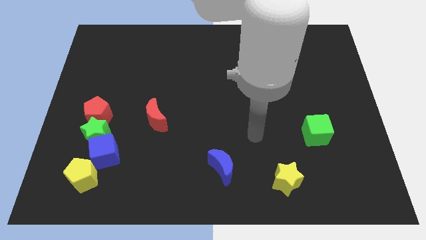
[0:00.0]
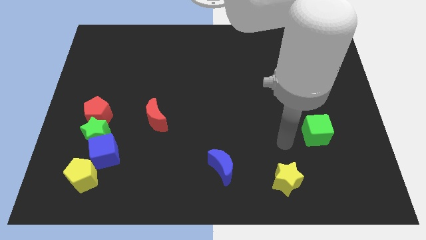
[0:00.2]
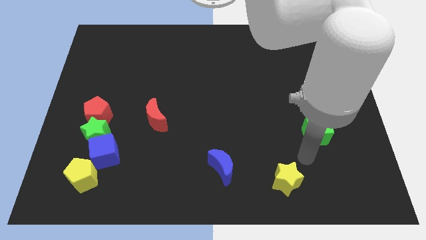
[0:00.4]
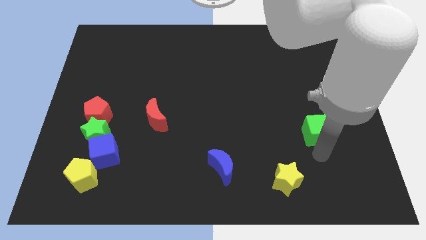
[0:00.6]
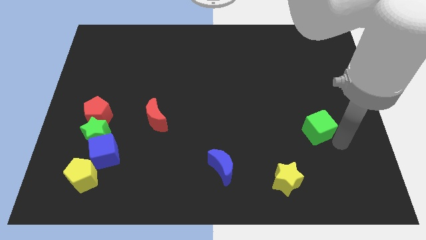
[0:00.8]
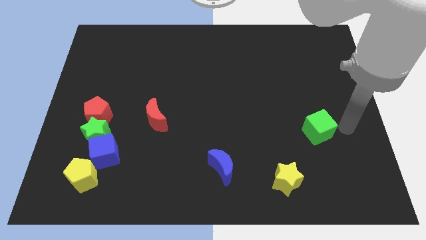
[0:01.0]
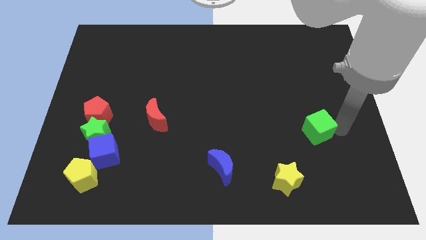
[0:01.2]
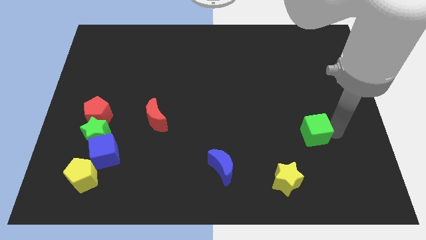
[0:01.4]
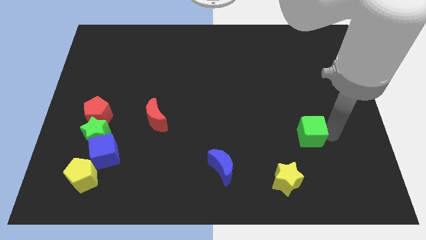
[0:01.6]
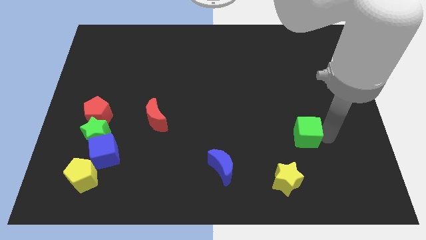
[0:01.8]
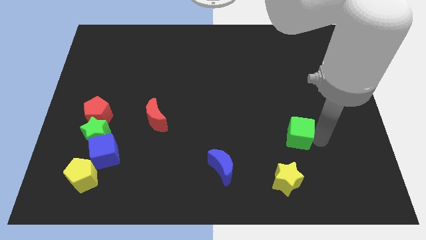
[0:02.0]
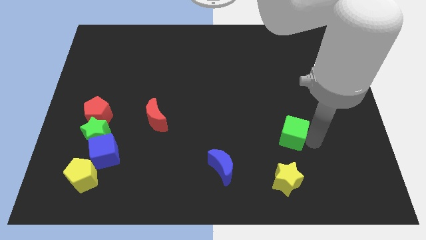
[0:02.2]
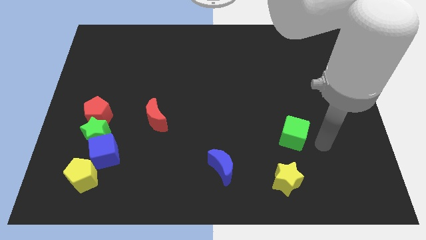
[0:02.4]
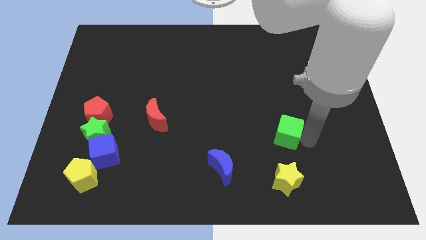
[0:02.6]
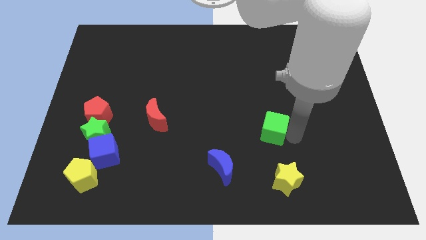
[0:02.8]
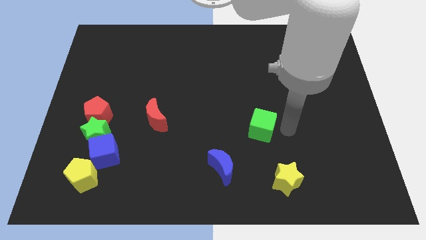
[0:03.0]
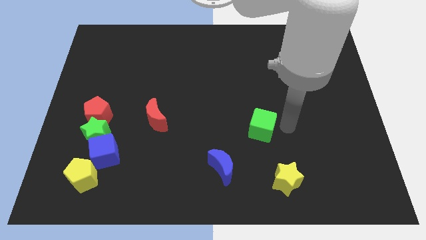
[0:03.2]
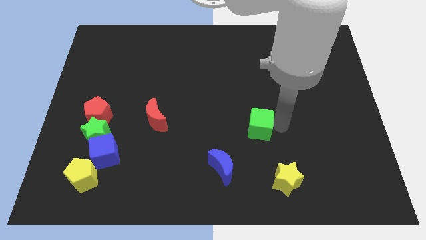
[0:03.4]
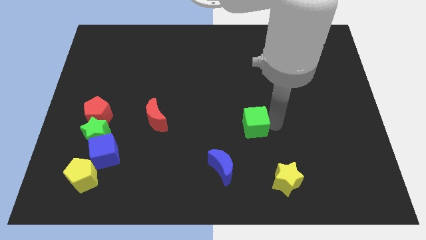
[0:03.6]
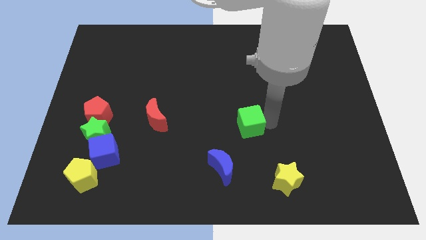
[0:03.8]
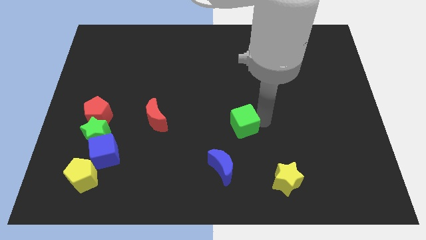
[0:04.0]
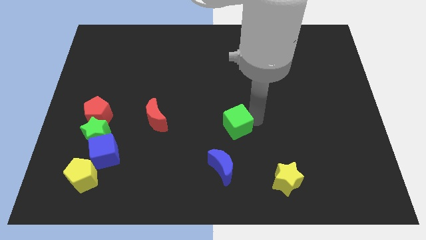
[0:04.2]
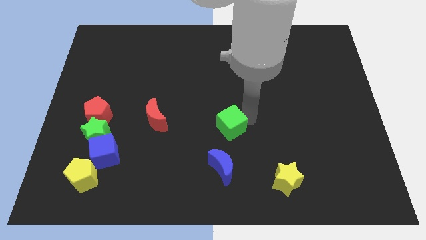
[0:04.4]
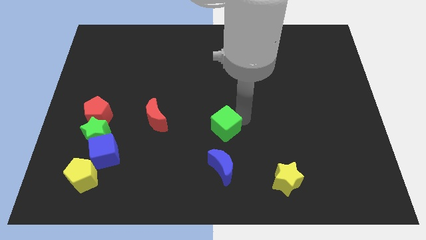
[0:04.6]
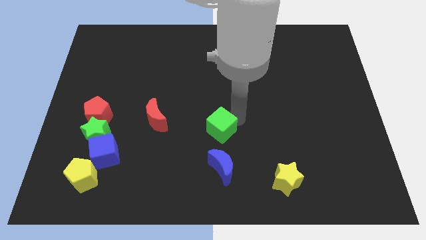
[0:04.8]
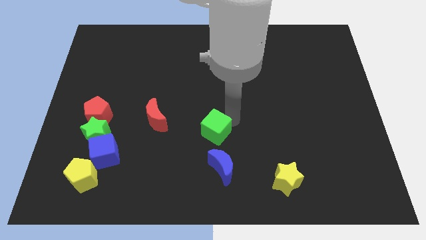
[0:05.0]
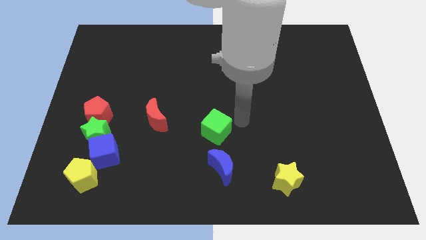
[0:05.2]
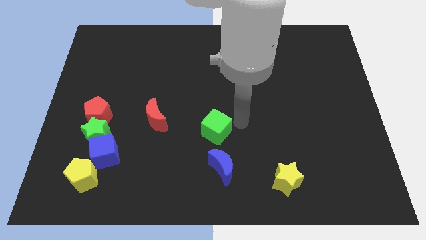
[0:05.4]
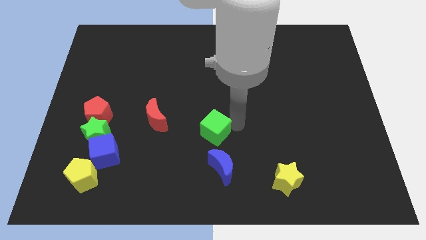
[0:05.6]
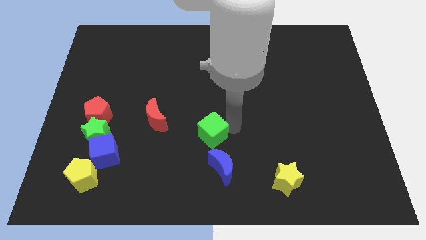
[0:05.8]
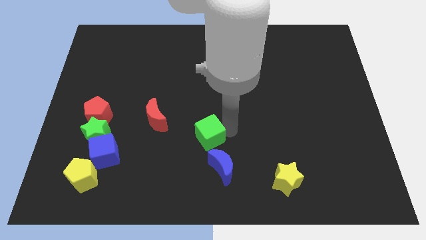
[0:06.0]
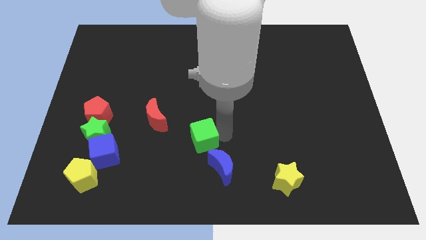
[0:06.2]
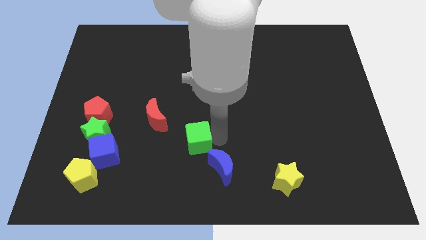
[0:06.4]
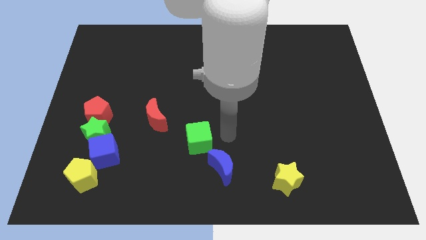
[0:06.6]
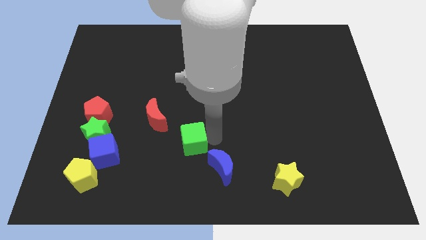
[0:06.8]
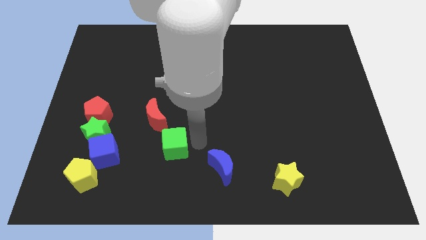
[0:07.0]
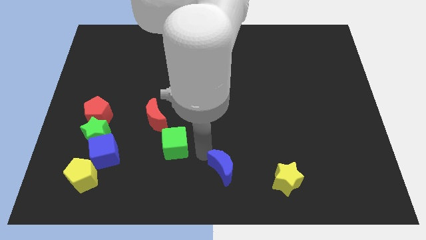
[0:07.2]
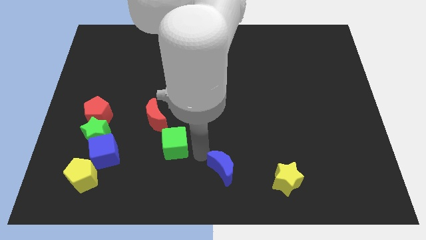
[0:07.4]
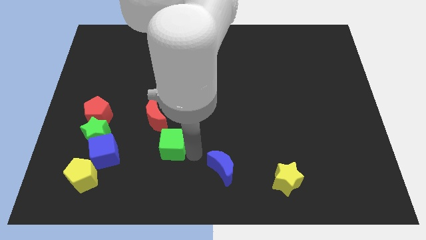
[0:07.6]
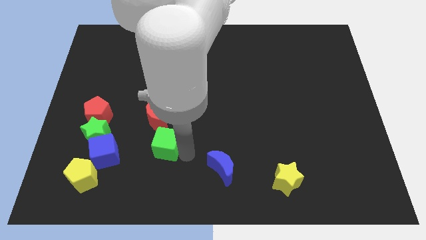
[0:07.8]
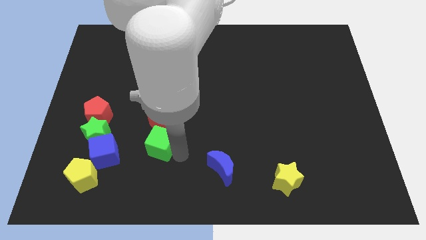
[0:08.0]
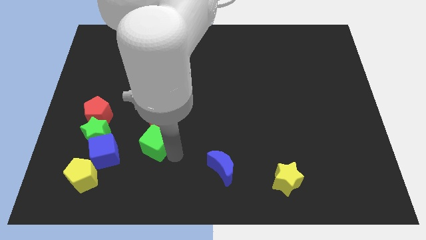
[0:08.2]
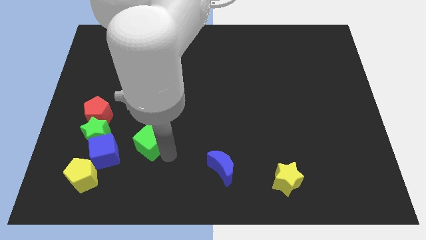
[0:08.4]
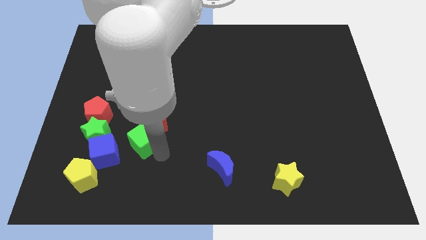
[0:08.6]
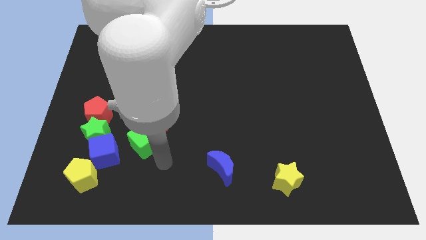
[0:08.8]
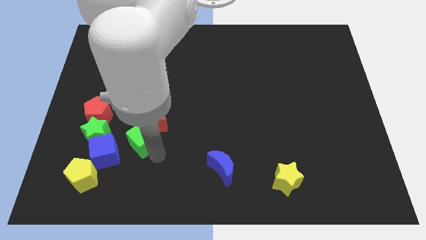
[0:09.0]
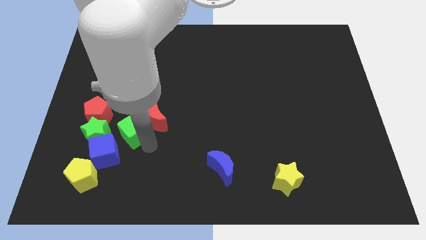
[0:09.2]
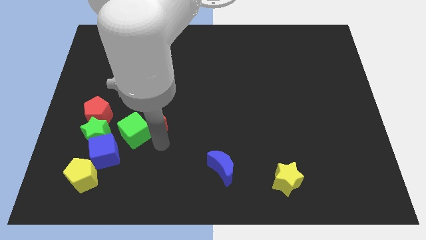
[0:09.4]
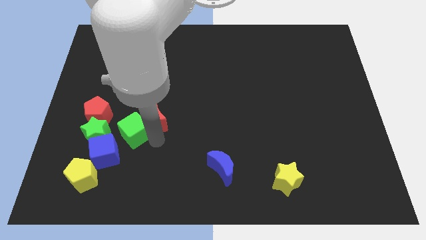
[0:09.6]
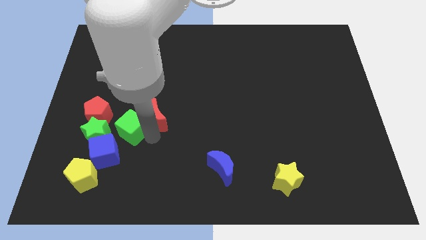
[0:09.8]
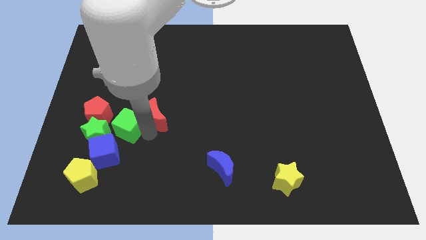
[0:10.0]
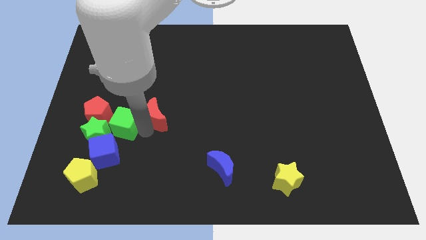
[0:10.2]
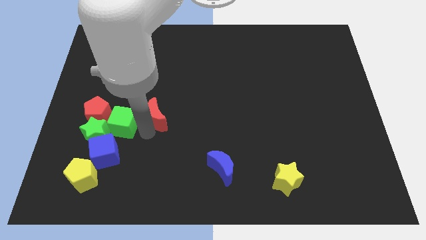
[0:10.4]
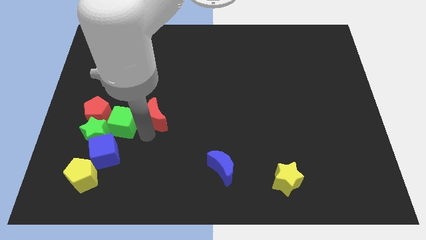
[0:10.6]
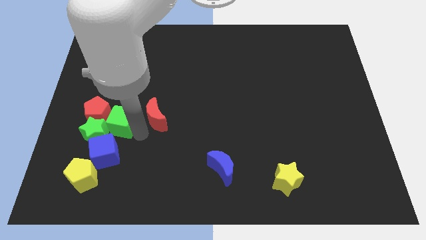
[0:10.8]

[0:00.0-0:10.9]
put the green cube next to the red pentagon

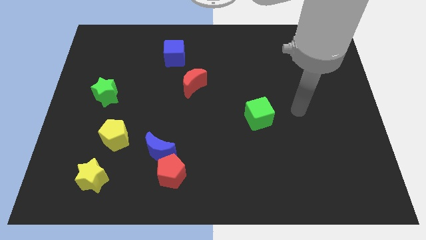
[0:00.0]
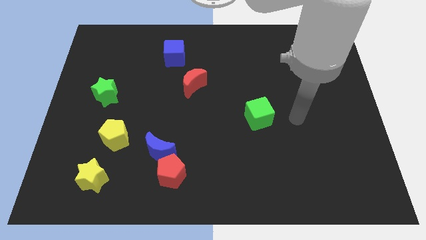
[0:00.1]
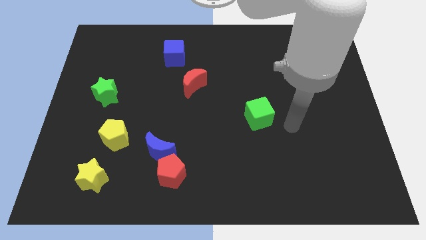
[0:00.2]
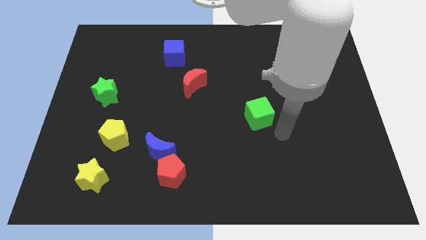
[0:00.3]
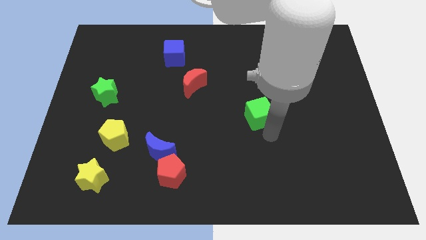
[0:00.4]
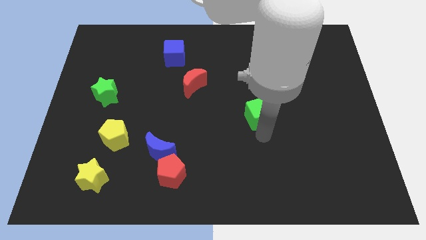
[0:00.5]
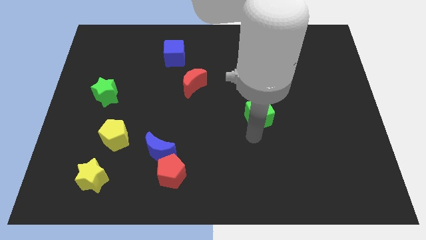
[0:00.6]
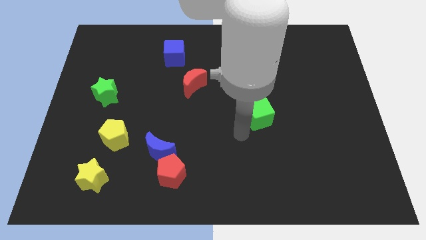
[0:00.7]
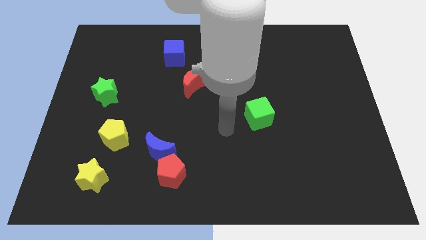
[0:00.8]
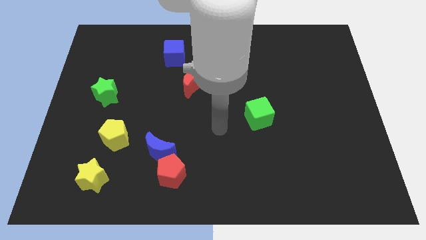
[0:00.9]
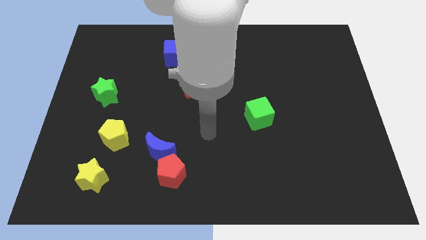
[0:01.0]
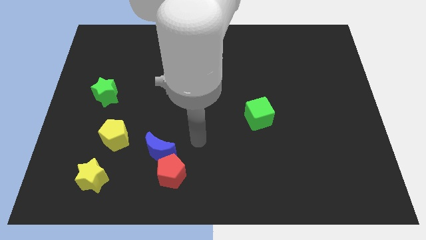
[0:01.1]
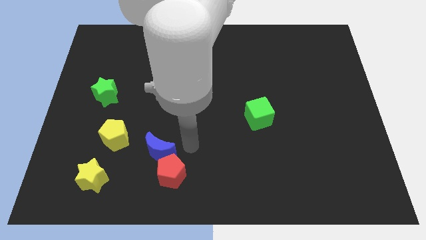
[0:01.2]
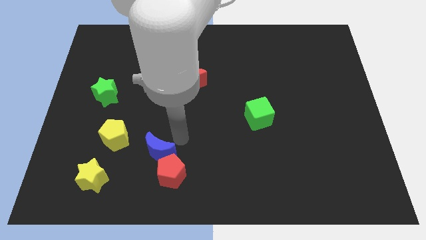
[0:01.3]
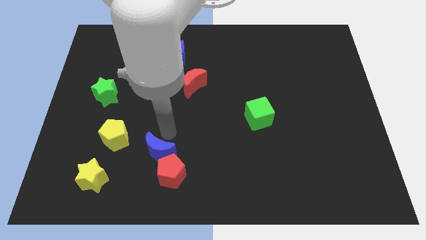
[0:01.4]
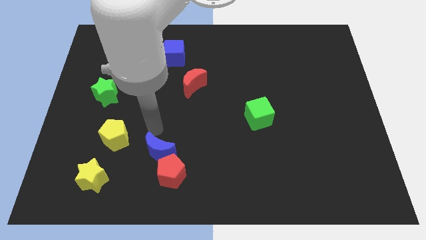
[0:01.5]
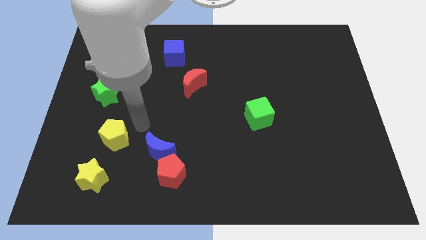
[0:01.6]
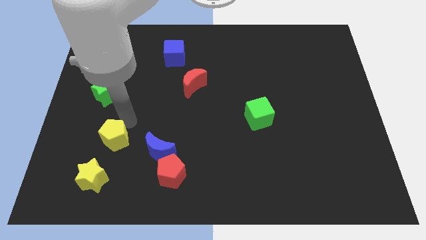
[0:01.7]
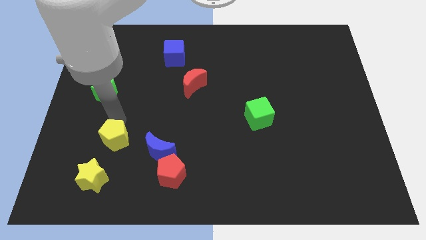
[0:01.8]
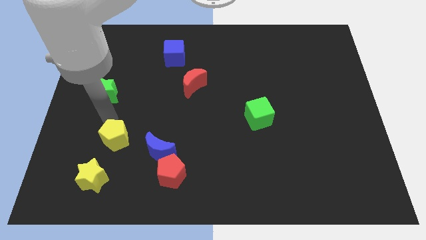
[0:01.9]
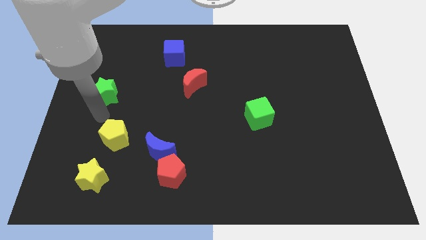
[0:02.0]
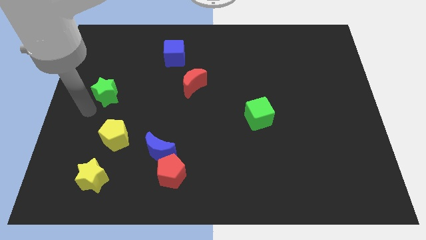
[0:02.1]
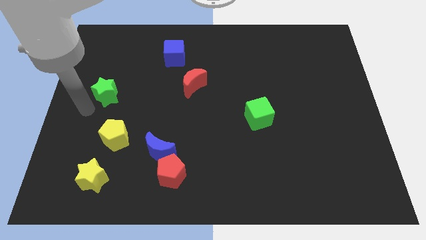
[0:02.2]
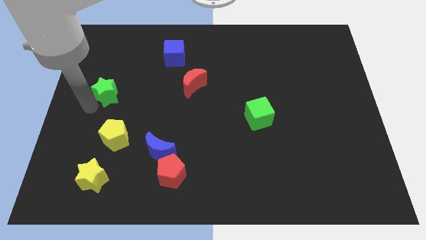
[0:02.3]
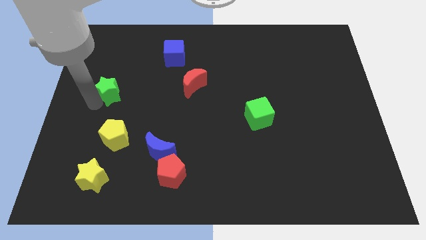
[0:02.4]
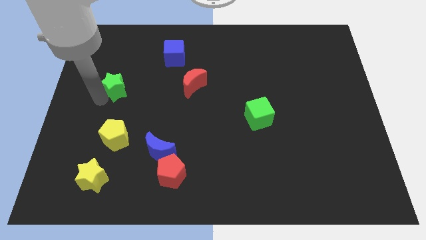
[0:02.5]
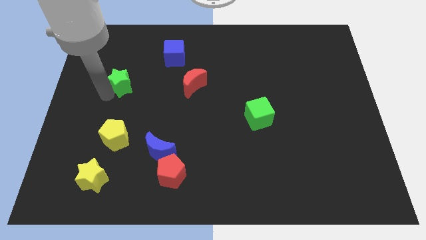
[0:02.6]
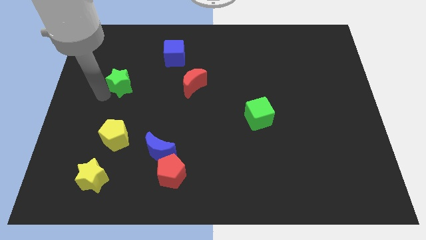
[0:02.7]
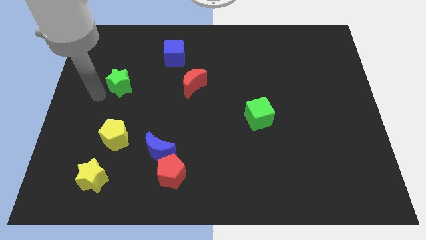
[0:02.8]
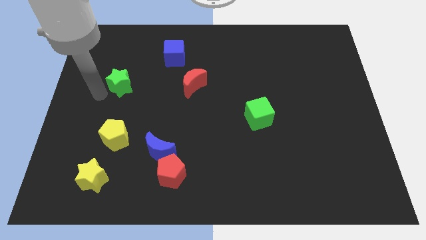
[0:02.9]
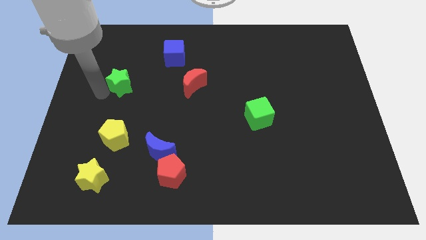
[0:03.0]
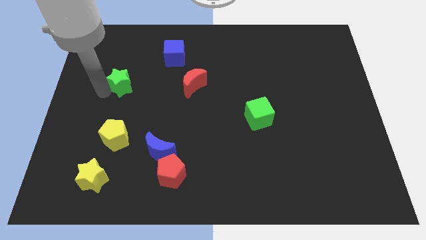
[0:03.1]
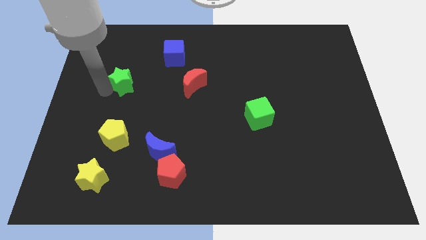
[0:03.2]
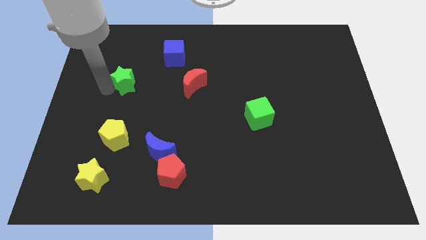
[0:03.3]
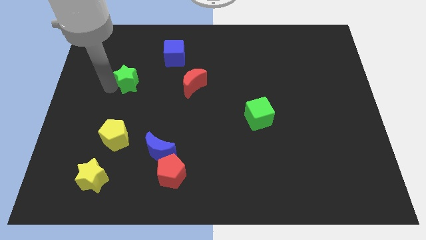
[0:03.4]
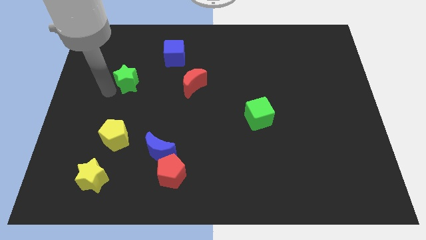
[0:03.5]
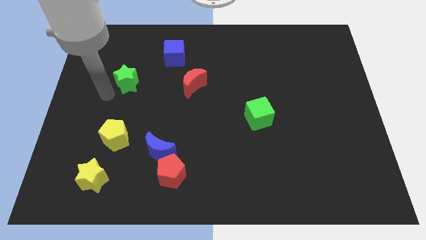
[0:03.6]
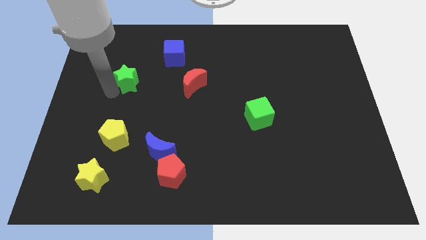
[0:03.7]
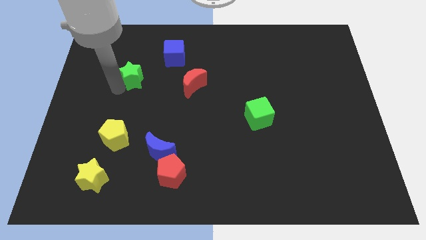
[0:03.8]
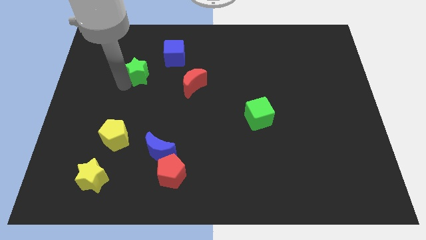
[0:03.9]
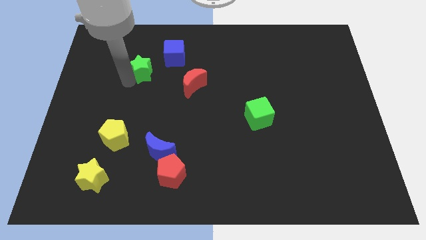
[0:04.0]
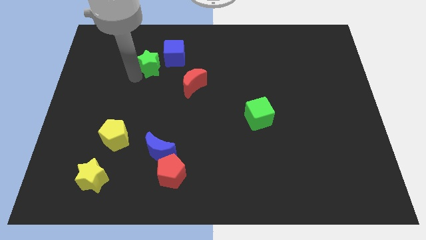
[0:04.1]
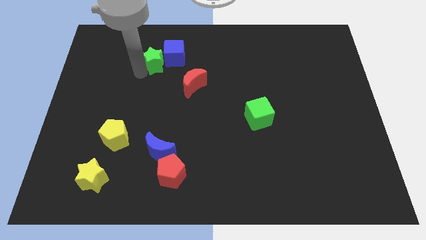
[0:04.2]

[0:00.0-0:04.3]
push the green star to the blue cube
